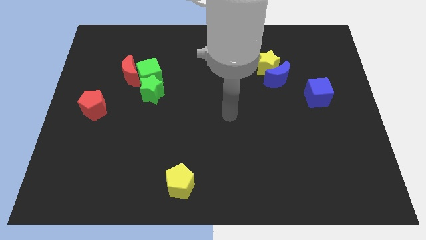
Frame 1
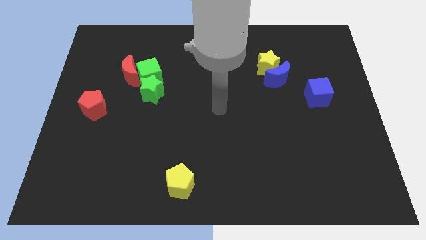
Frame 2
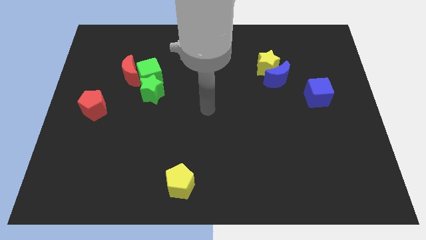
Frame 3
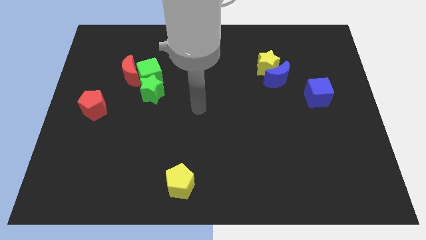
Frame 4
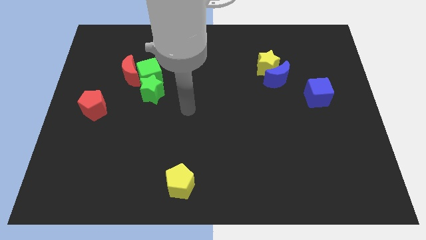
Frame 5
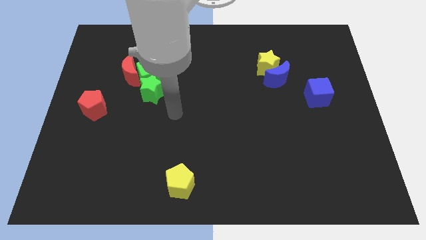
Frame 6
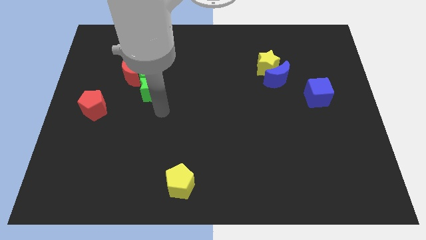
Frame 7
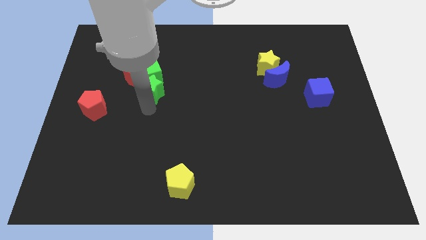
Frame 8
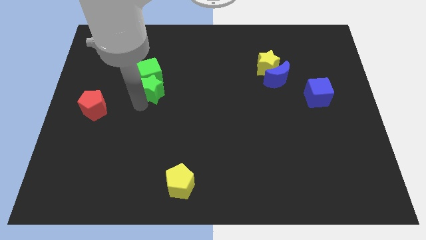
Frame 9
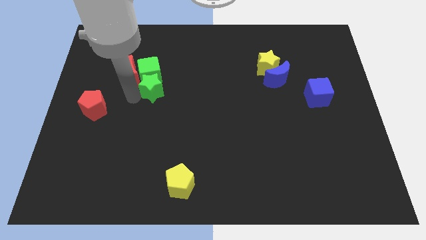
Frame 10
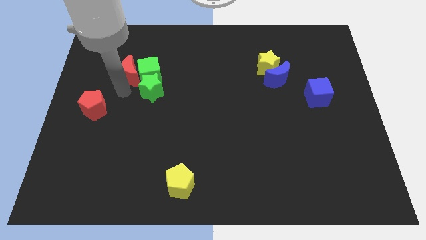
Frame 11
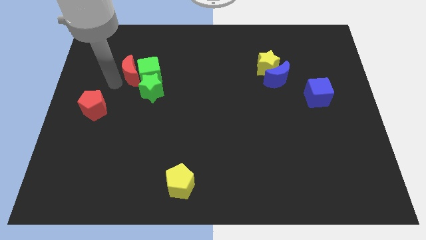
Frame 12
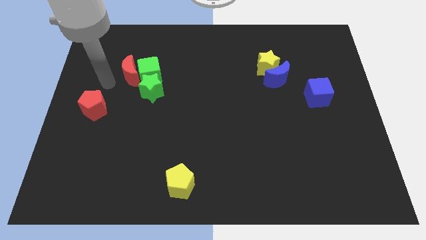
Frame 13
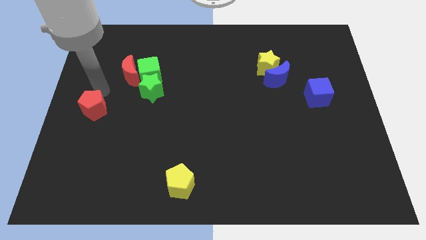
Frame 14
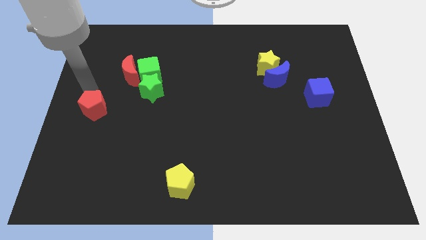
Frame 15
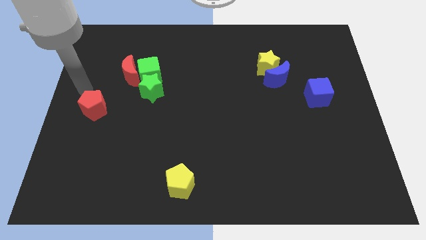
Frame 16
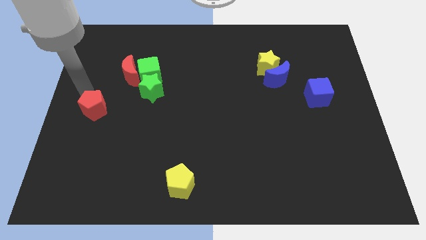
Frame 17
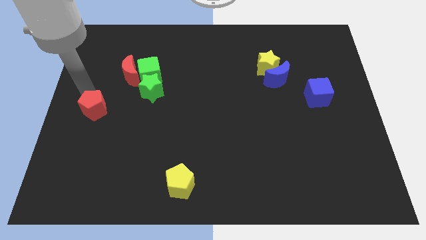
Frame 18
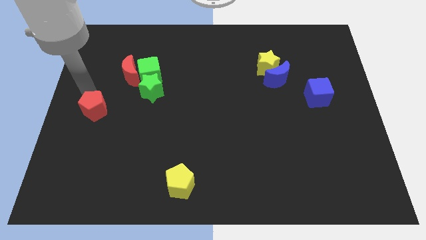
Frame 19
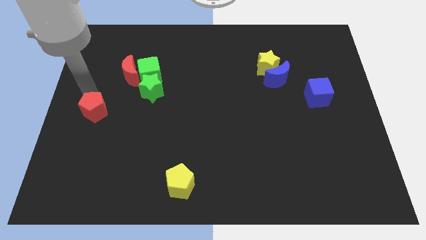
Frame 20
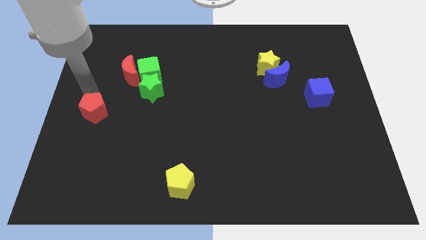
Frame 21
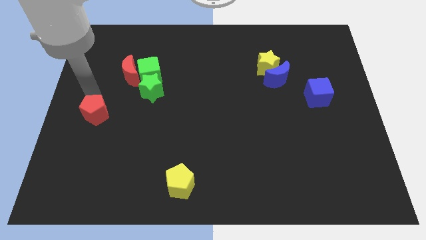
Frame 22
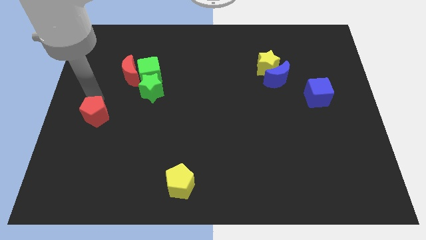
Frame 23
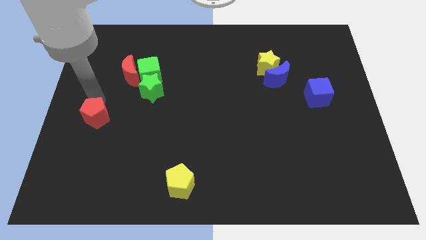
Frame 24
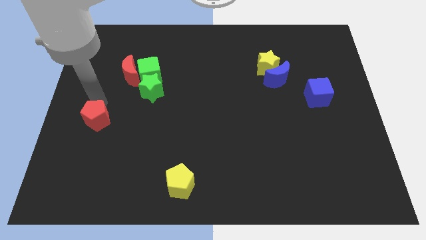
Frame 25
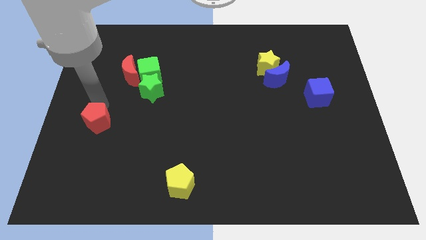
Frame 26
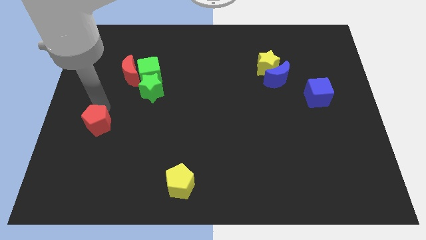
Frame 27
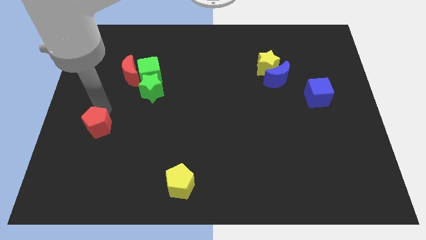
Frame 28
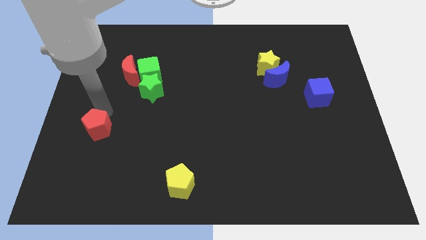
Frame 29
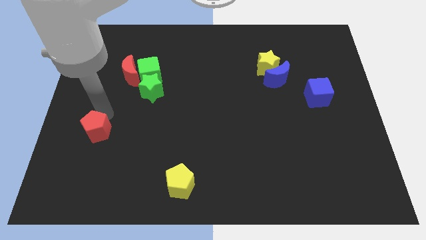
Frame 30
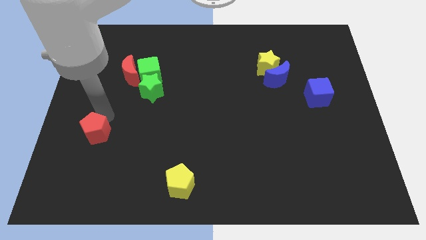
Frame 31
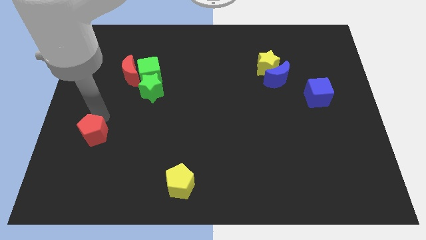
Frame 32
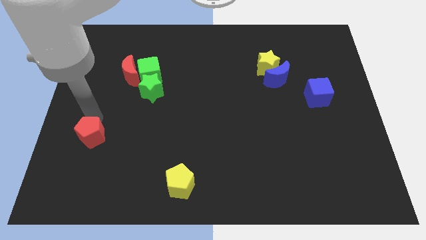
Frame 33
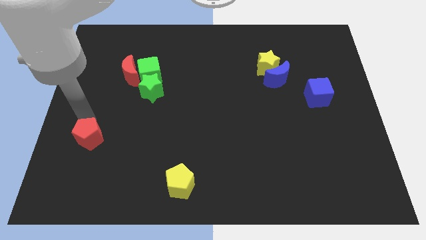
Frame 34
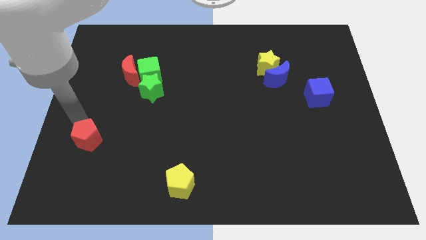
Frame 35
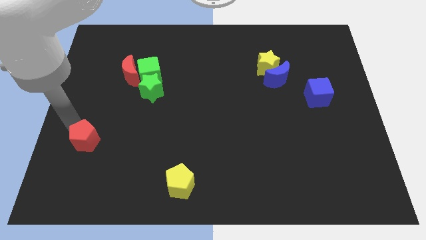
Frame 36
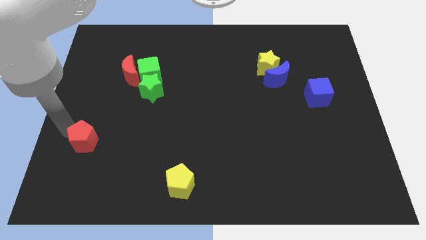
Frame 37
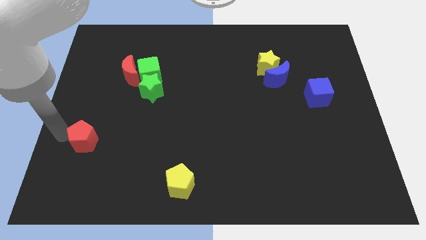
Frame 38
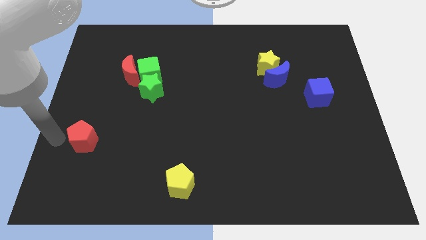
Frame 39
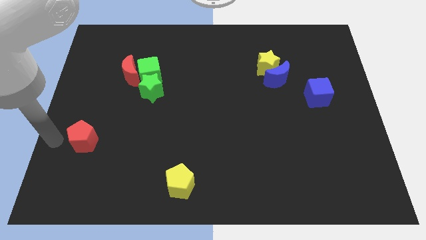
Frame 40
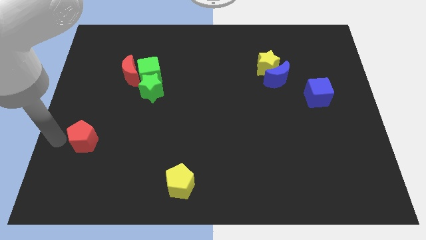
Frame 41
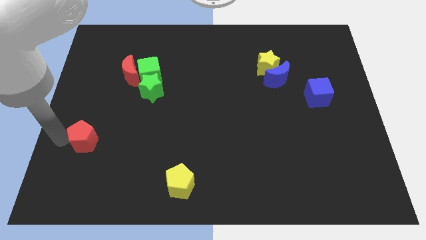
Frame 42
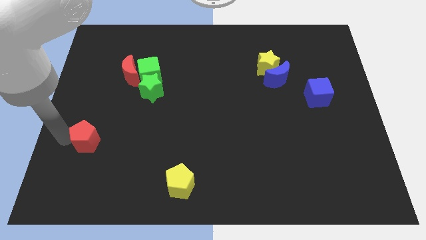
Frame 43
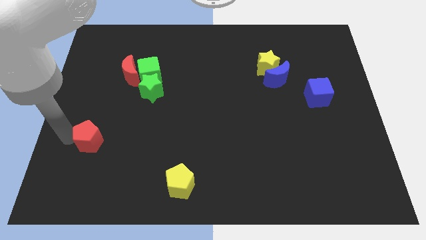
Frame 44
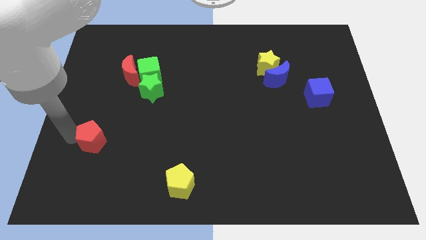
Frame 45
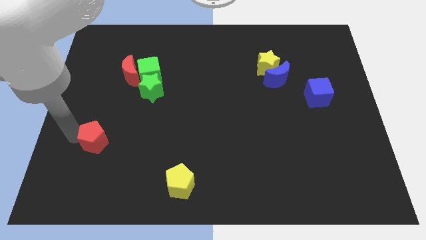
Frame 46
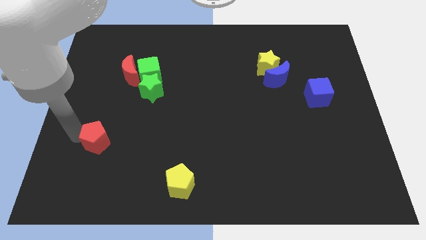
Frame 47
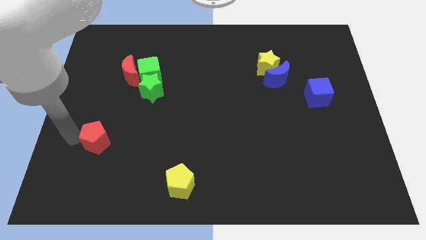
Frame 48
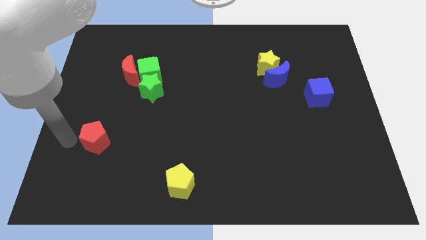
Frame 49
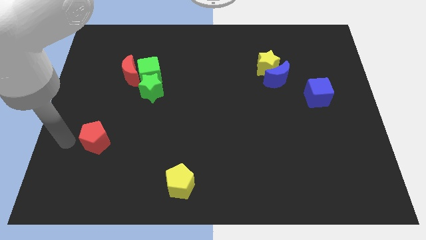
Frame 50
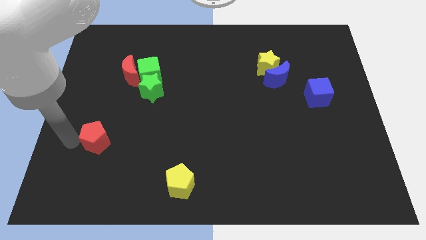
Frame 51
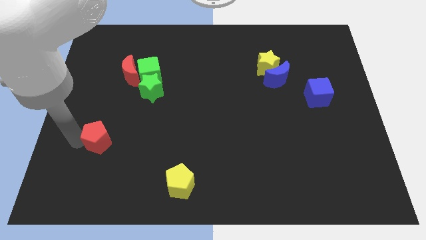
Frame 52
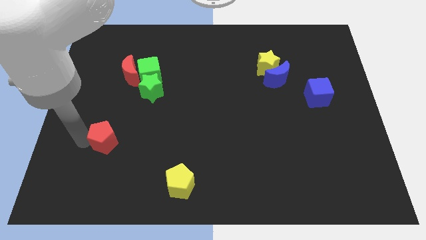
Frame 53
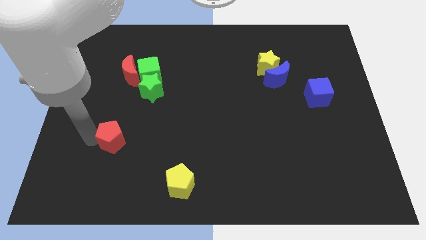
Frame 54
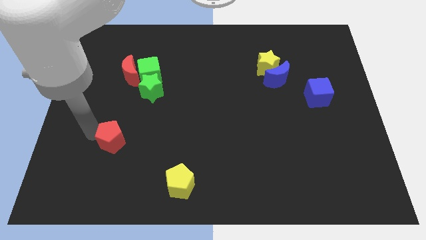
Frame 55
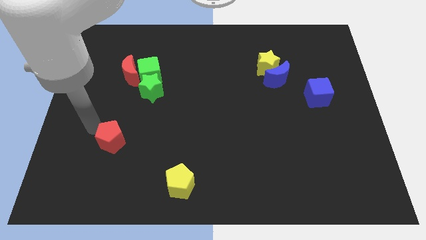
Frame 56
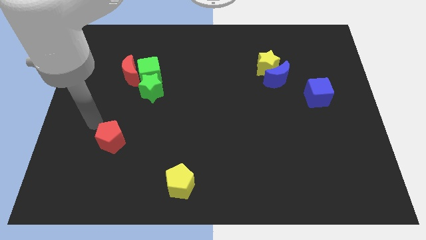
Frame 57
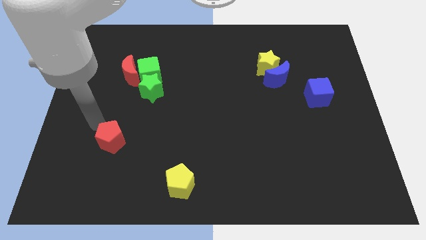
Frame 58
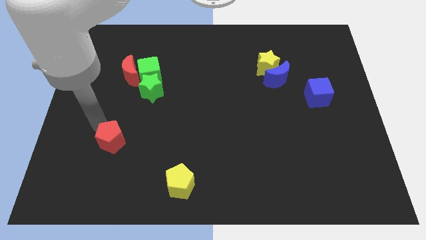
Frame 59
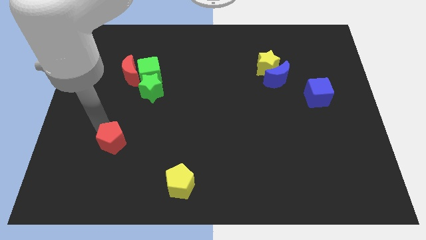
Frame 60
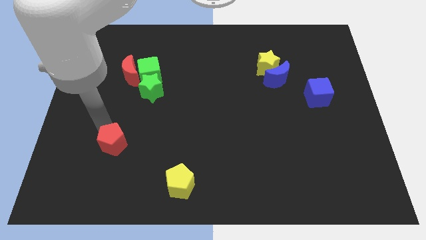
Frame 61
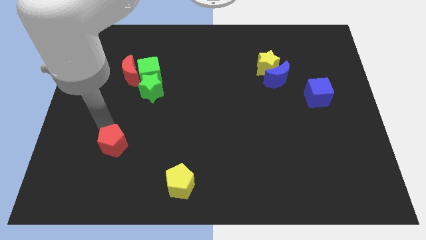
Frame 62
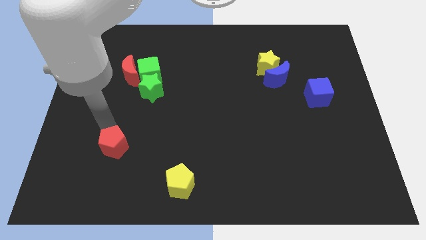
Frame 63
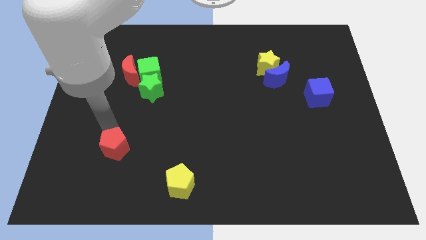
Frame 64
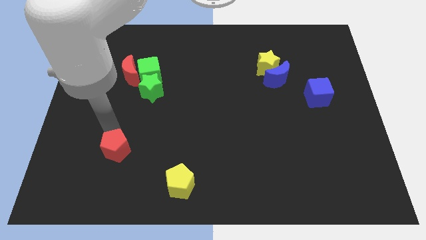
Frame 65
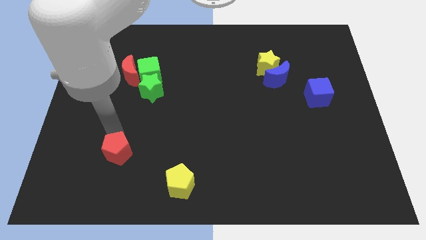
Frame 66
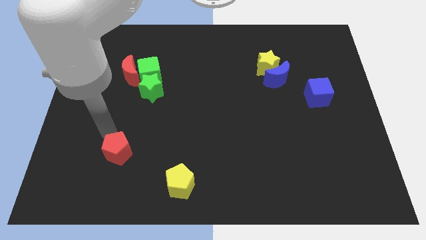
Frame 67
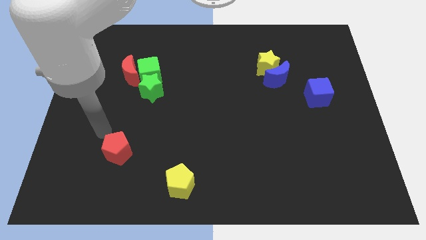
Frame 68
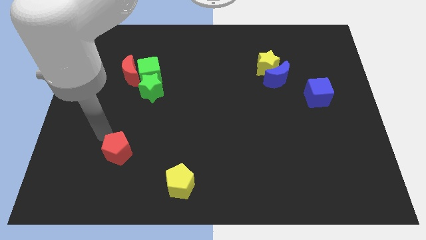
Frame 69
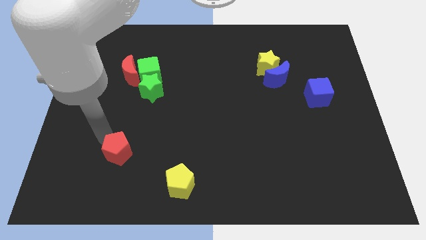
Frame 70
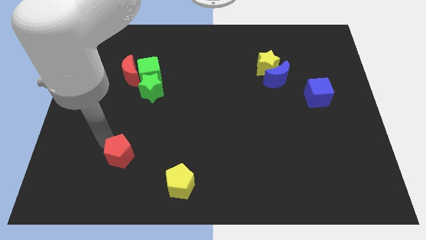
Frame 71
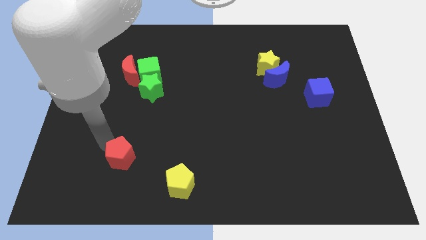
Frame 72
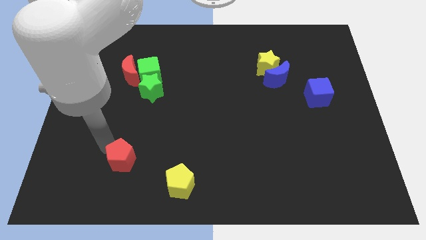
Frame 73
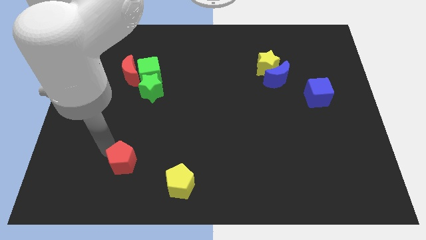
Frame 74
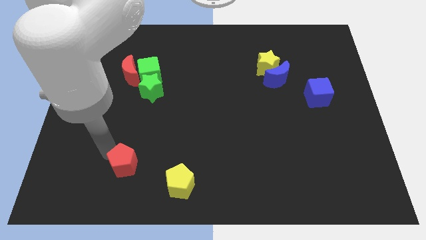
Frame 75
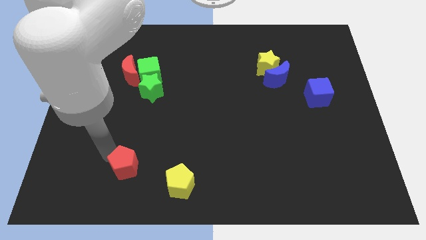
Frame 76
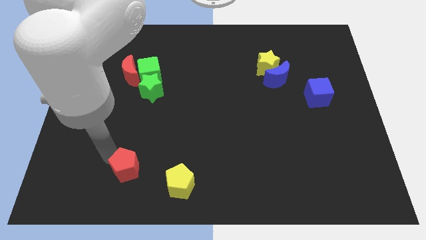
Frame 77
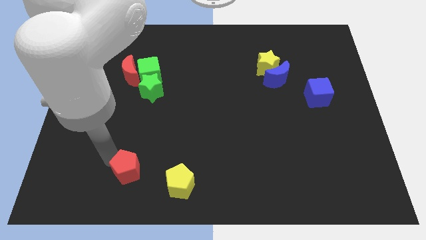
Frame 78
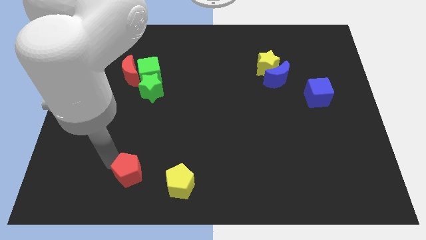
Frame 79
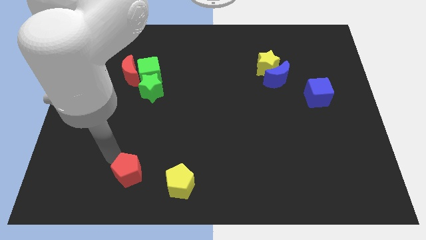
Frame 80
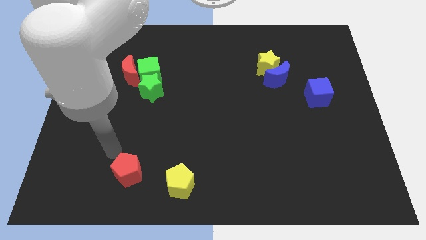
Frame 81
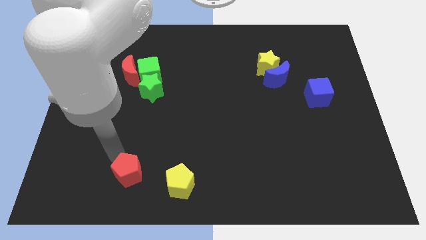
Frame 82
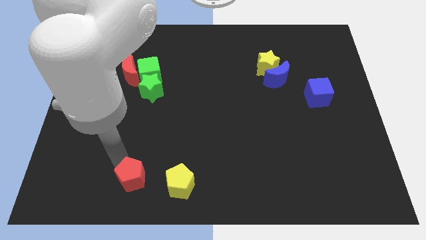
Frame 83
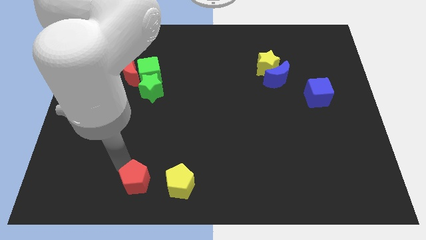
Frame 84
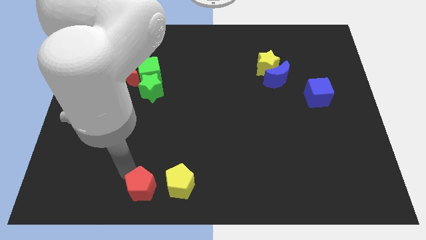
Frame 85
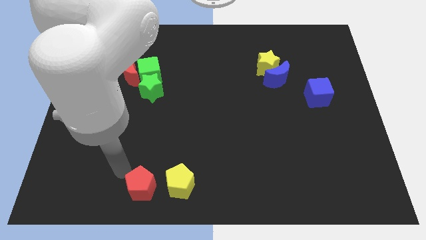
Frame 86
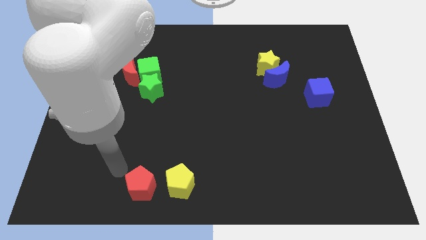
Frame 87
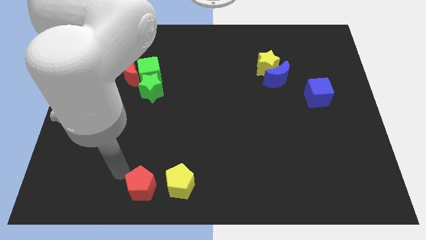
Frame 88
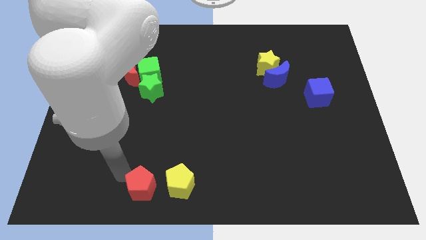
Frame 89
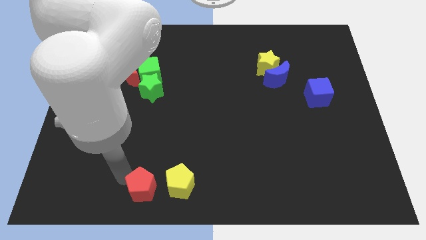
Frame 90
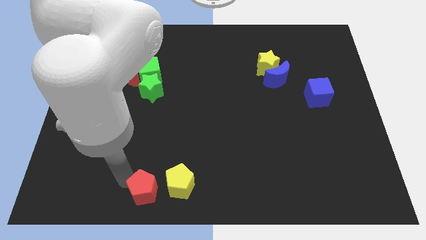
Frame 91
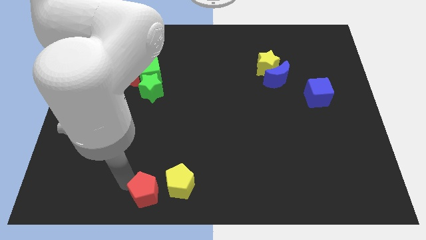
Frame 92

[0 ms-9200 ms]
put the red pentagon to the bottom
